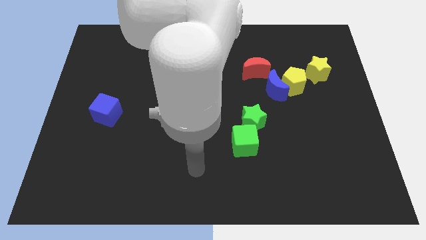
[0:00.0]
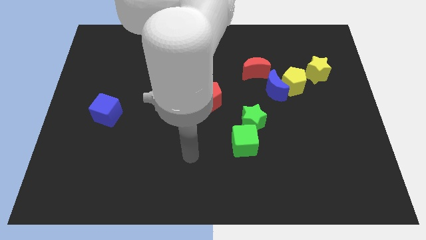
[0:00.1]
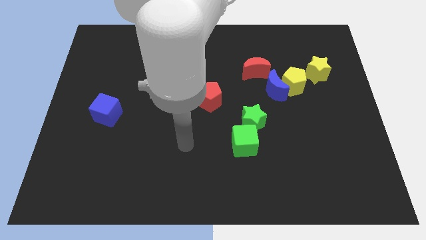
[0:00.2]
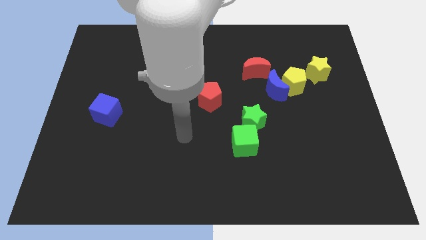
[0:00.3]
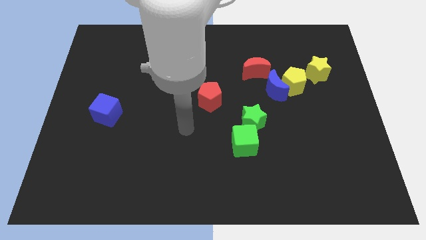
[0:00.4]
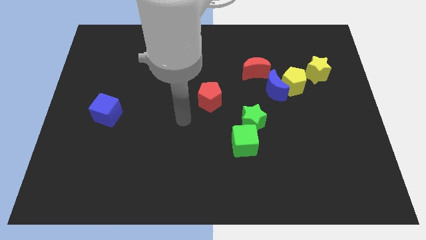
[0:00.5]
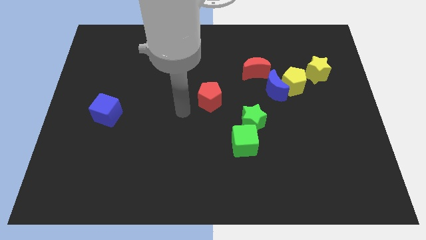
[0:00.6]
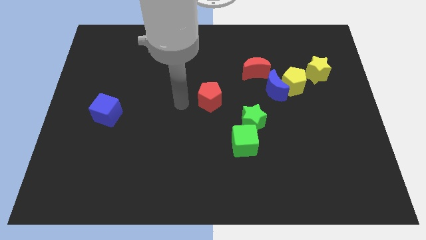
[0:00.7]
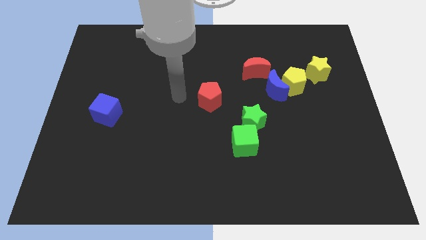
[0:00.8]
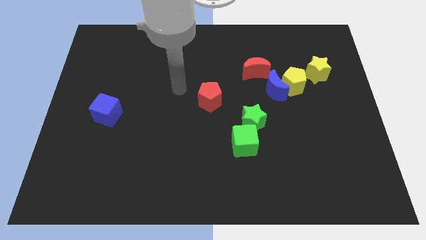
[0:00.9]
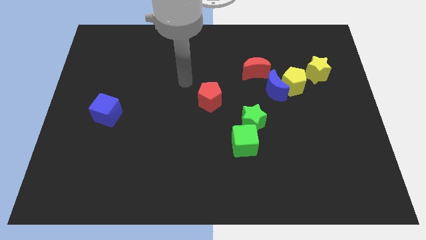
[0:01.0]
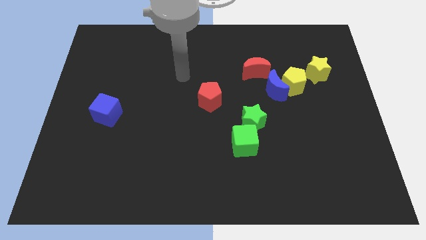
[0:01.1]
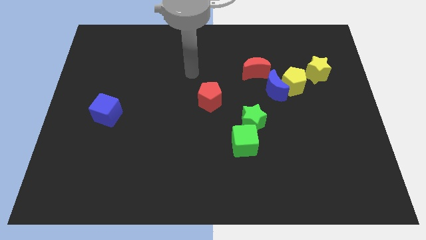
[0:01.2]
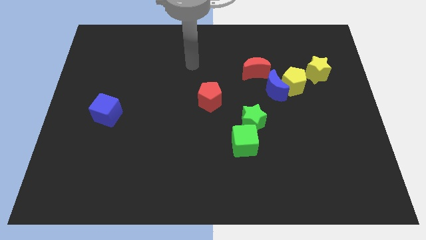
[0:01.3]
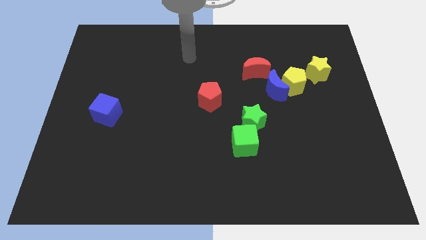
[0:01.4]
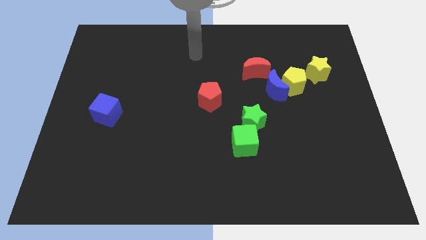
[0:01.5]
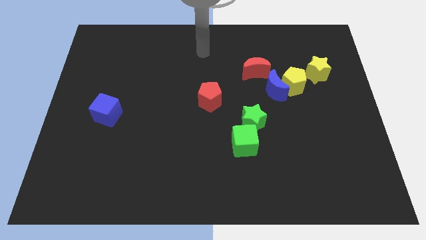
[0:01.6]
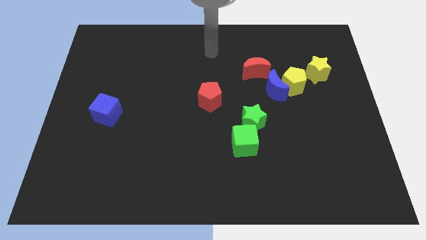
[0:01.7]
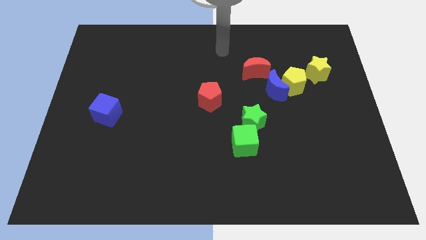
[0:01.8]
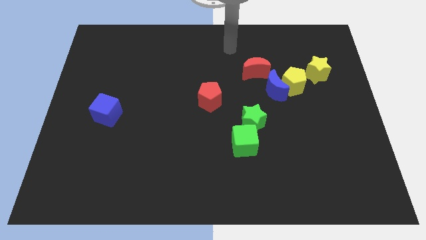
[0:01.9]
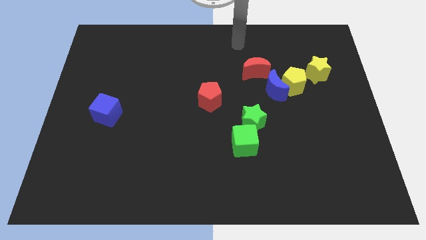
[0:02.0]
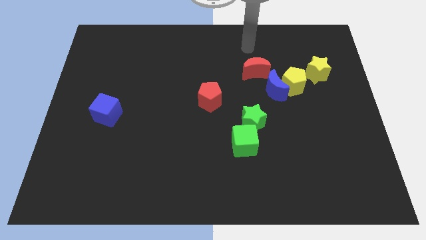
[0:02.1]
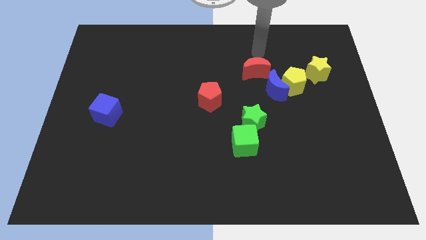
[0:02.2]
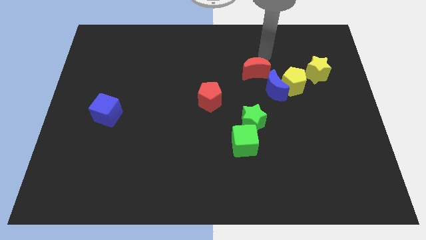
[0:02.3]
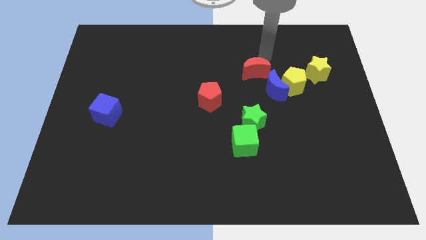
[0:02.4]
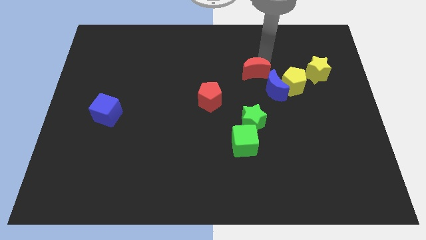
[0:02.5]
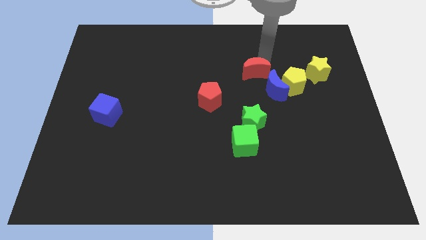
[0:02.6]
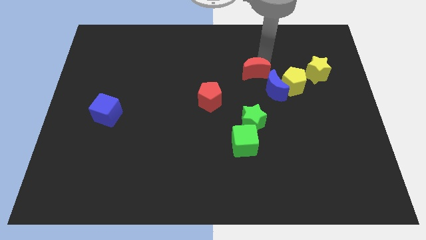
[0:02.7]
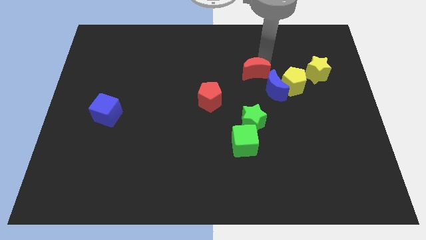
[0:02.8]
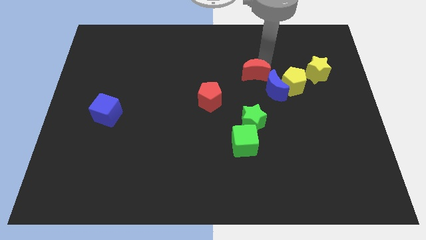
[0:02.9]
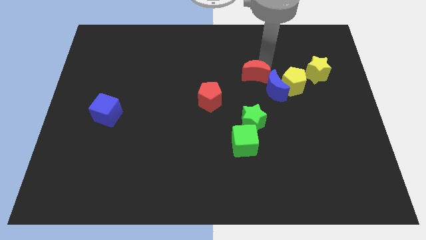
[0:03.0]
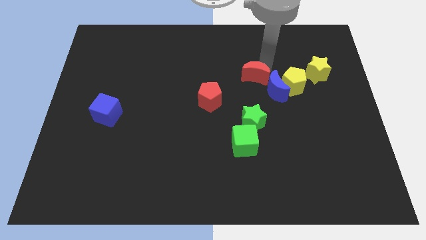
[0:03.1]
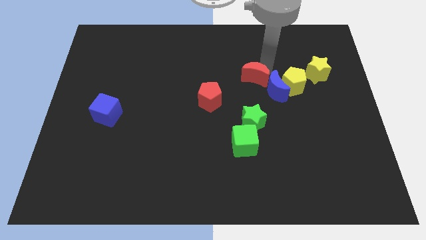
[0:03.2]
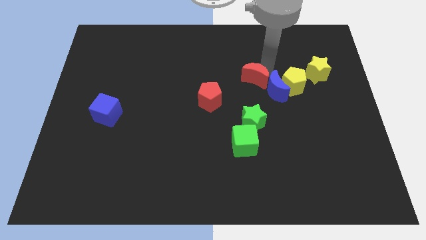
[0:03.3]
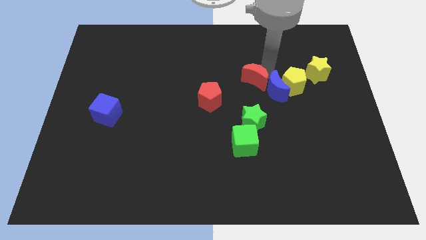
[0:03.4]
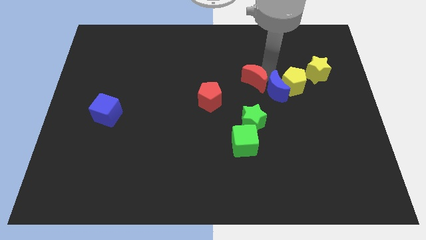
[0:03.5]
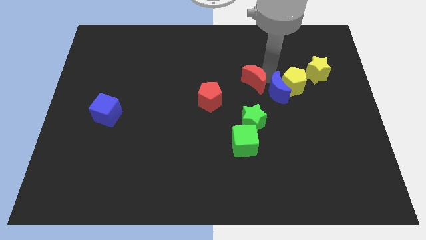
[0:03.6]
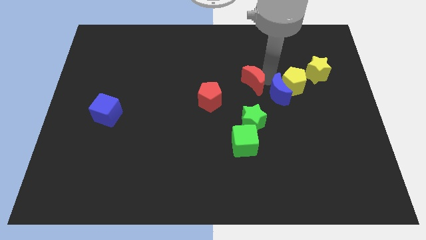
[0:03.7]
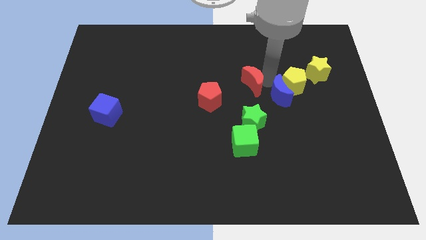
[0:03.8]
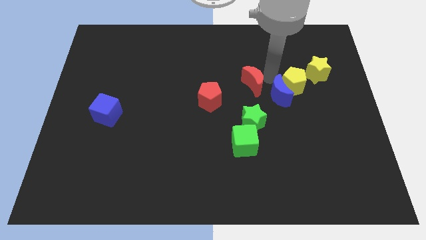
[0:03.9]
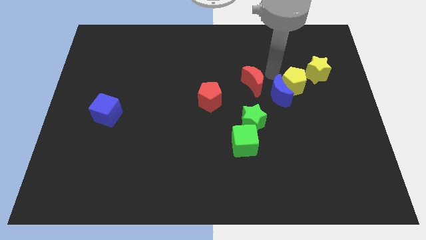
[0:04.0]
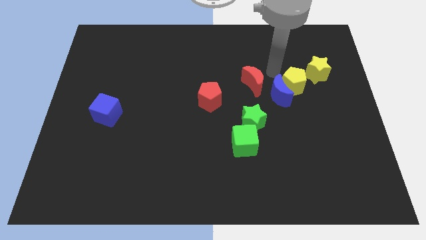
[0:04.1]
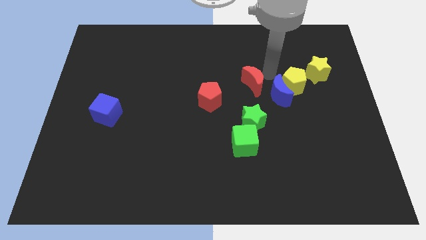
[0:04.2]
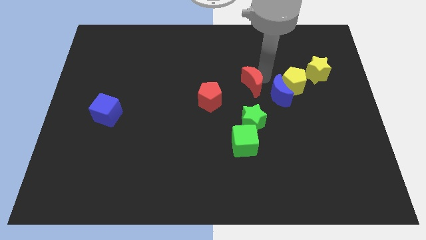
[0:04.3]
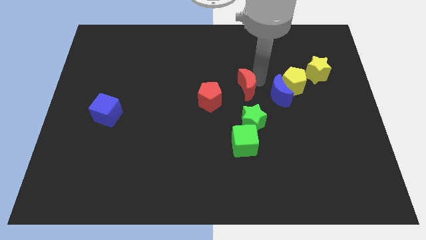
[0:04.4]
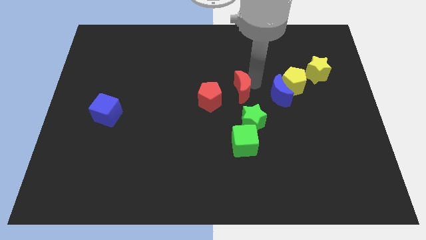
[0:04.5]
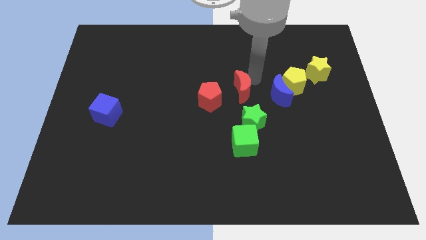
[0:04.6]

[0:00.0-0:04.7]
move the red moon slightly diagonally downwards and left

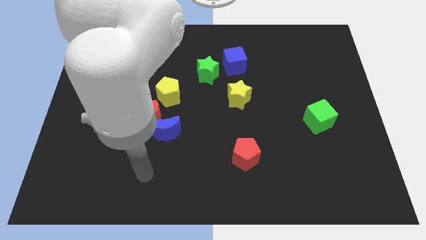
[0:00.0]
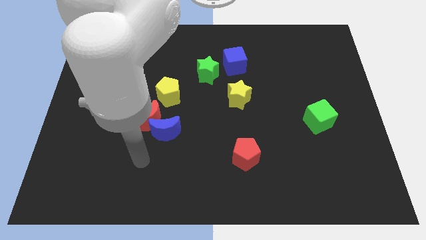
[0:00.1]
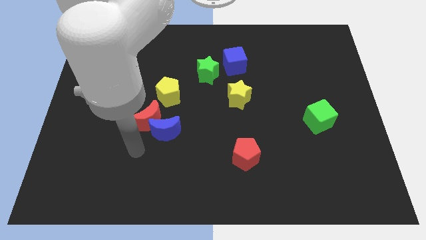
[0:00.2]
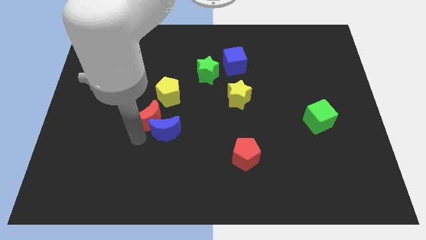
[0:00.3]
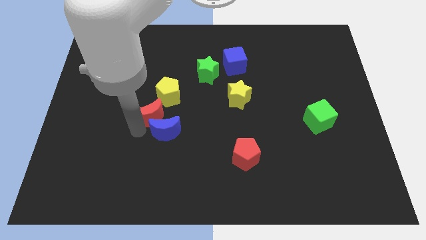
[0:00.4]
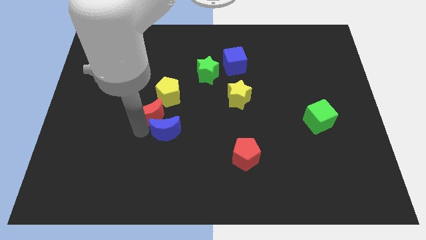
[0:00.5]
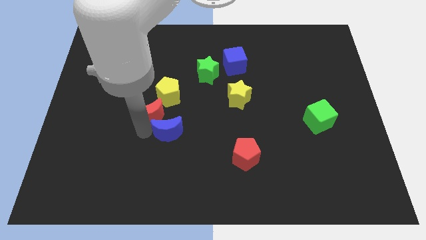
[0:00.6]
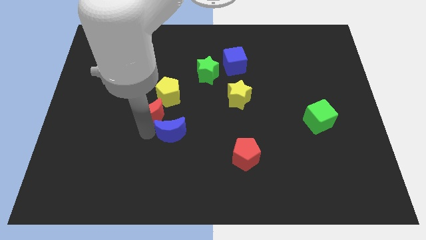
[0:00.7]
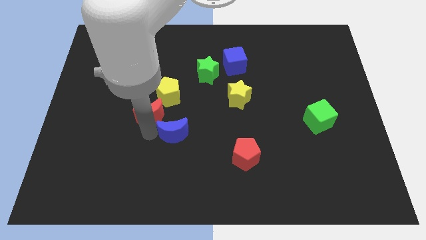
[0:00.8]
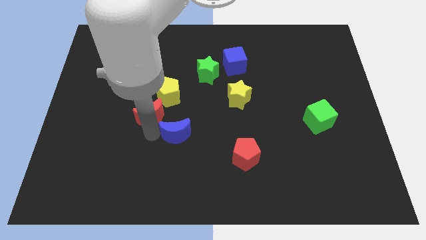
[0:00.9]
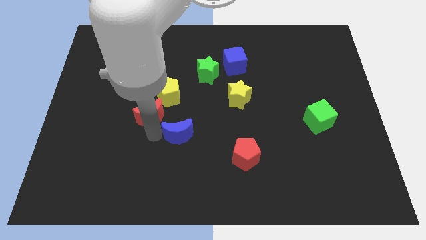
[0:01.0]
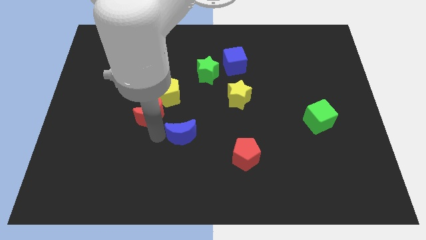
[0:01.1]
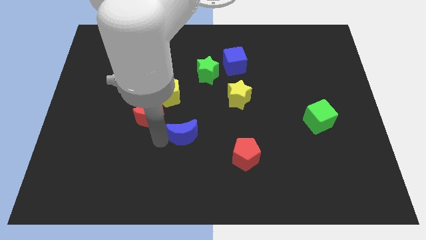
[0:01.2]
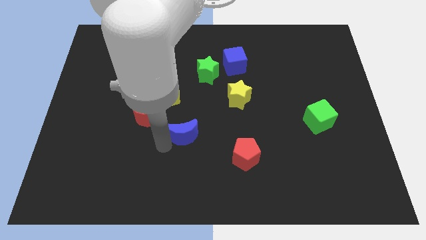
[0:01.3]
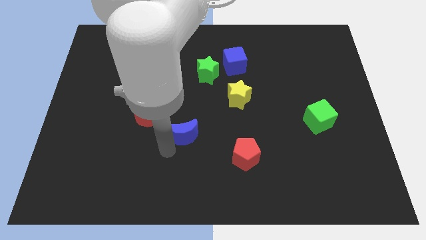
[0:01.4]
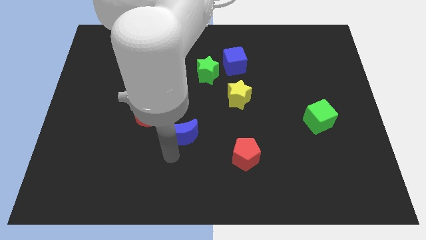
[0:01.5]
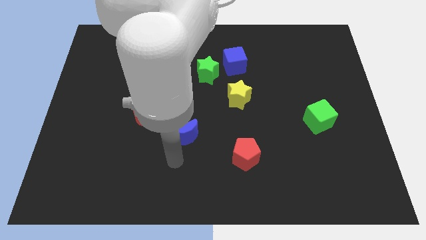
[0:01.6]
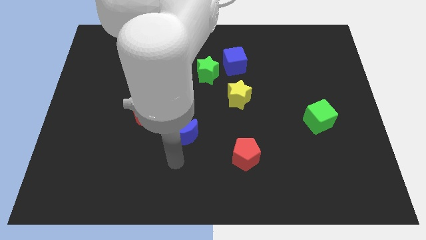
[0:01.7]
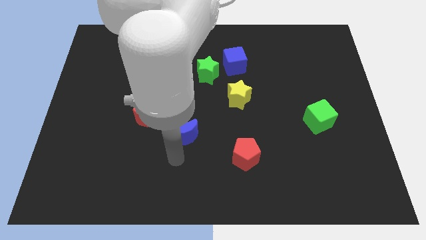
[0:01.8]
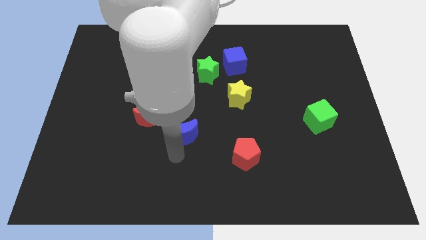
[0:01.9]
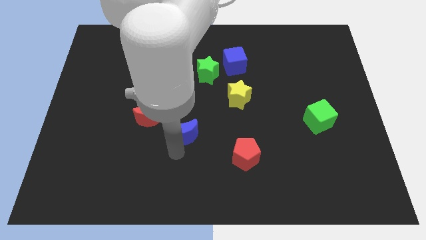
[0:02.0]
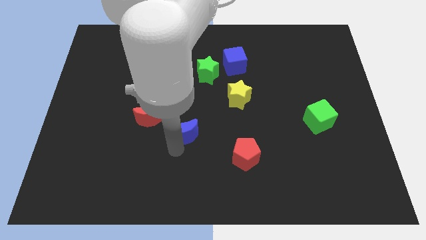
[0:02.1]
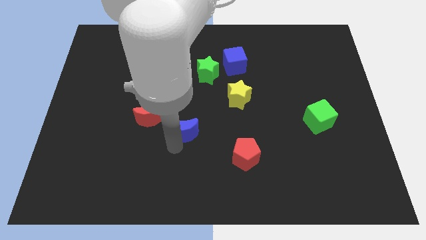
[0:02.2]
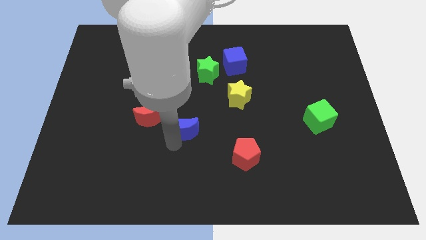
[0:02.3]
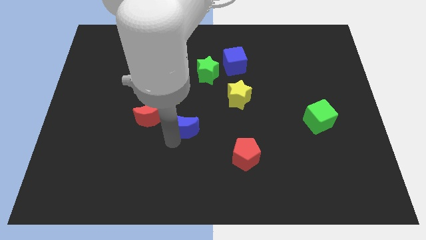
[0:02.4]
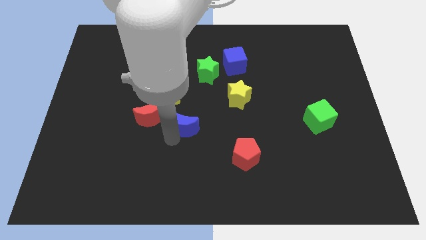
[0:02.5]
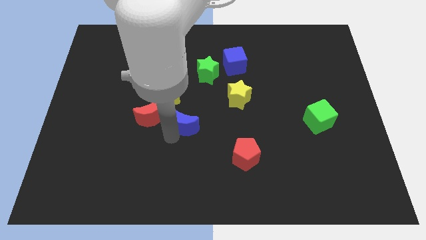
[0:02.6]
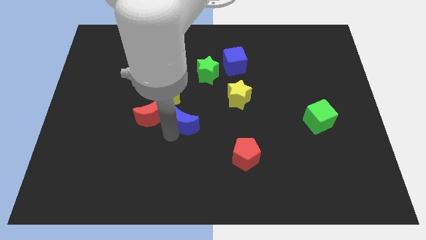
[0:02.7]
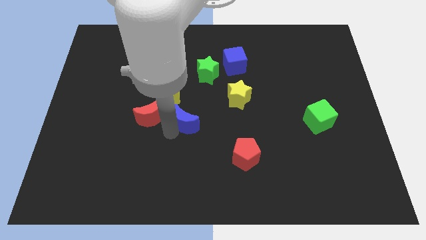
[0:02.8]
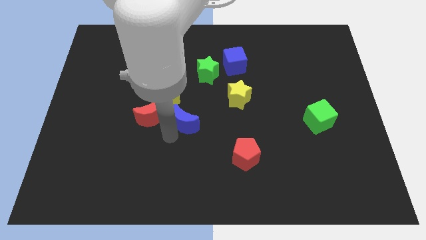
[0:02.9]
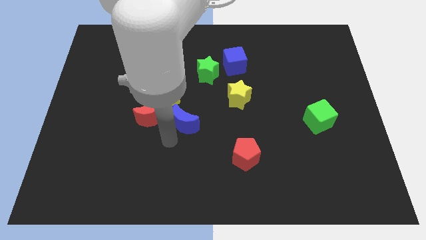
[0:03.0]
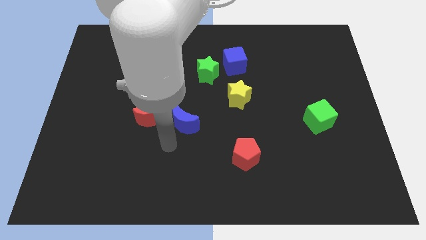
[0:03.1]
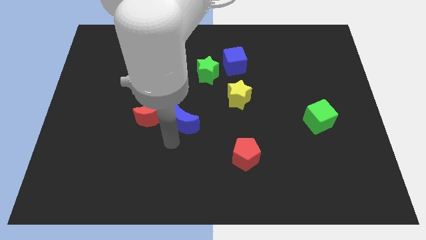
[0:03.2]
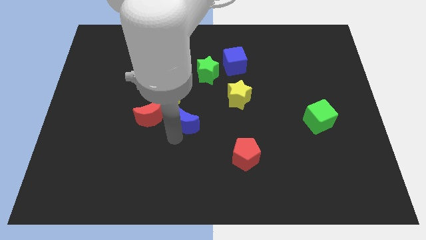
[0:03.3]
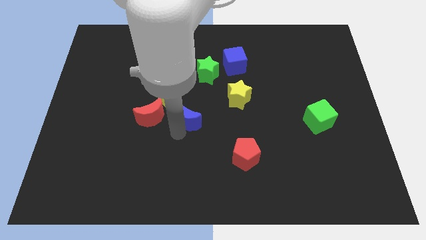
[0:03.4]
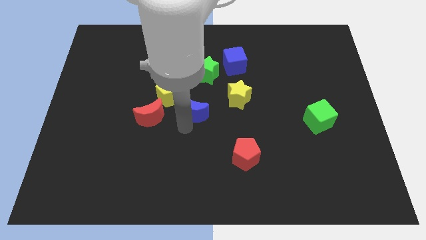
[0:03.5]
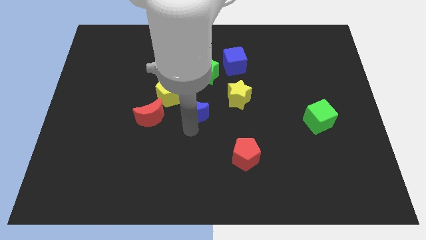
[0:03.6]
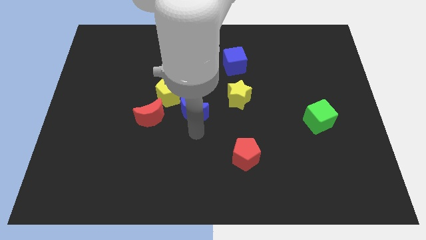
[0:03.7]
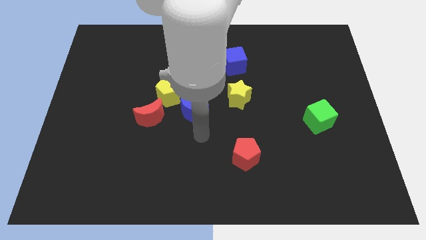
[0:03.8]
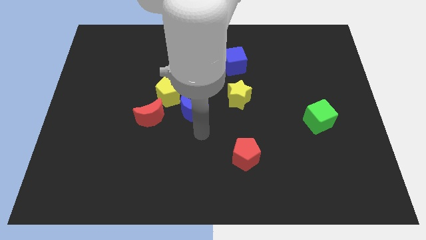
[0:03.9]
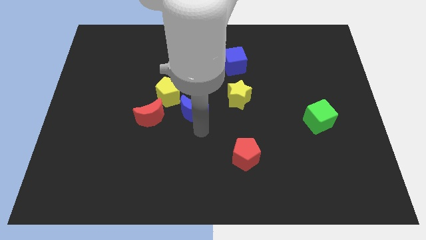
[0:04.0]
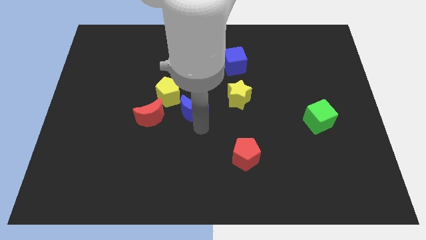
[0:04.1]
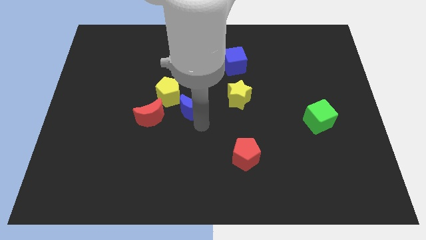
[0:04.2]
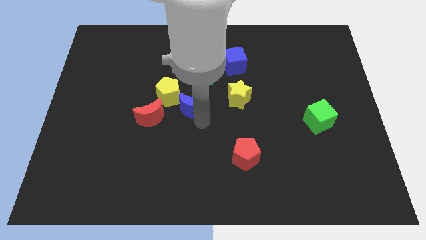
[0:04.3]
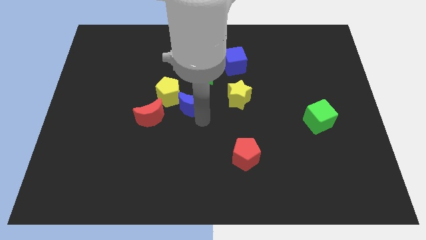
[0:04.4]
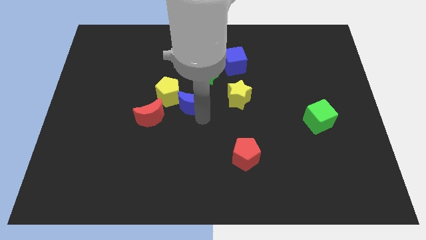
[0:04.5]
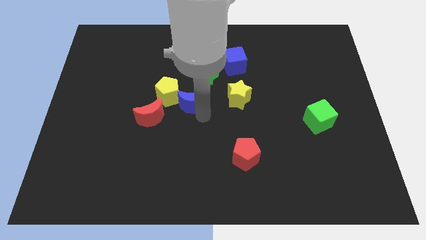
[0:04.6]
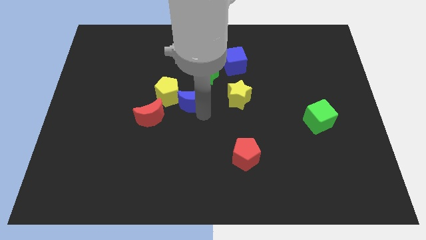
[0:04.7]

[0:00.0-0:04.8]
slightly push the blue moon up
